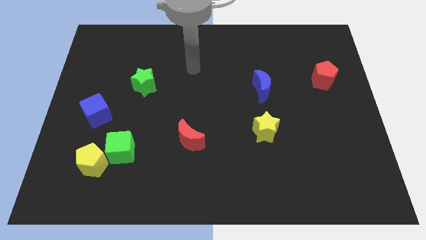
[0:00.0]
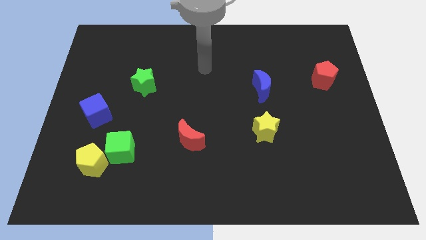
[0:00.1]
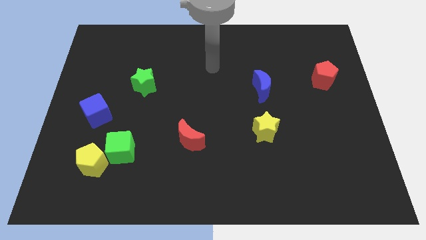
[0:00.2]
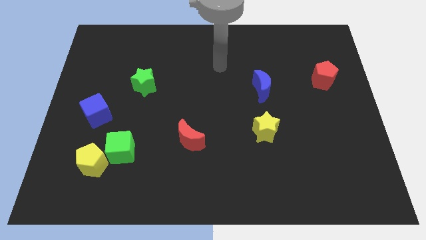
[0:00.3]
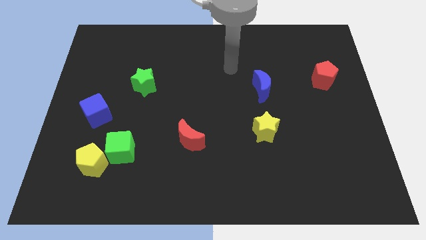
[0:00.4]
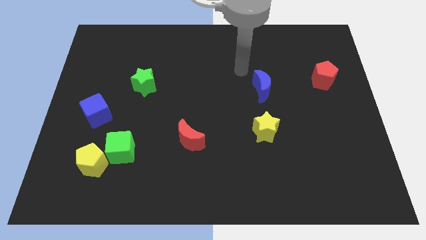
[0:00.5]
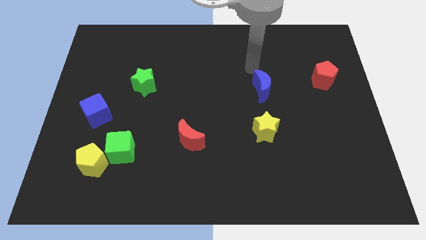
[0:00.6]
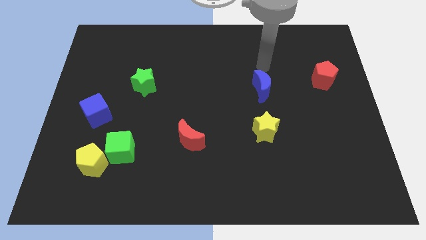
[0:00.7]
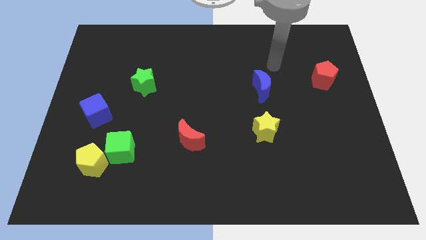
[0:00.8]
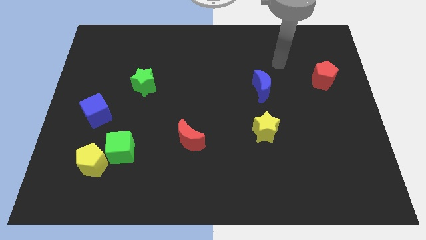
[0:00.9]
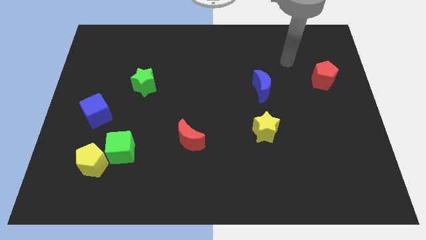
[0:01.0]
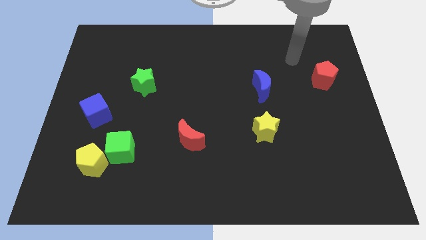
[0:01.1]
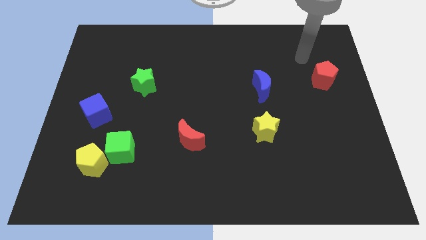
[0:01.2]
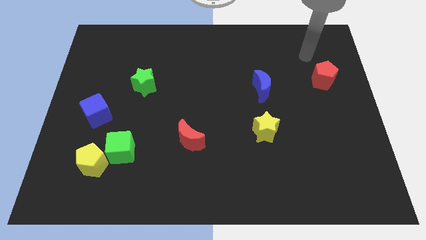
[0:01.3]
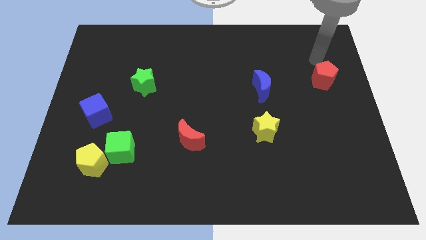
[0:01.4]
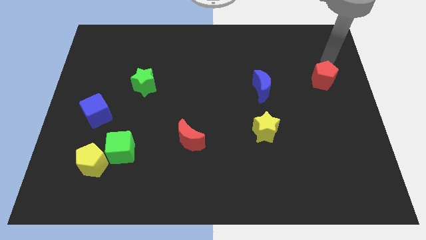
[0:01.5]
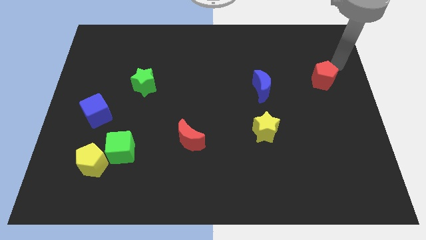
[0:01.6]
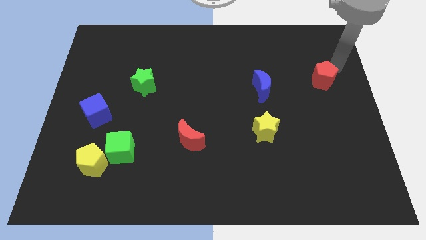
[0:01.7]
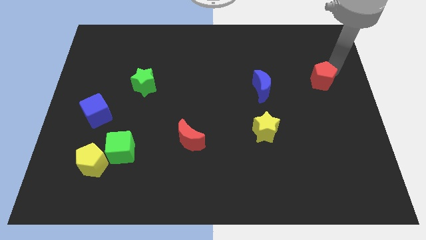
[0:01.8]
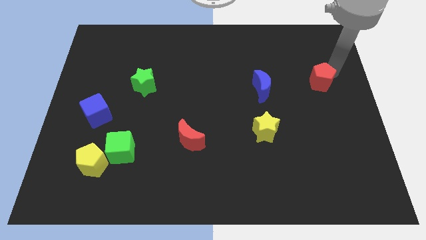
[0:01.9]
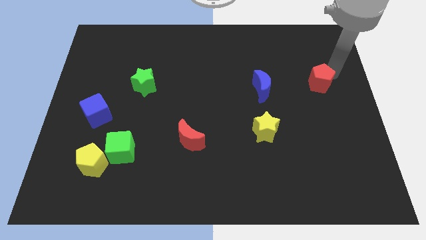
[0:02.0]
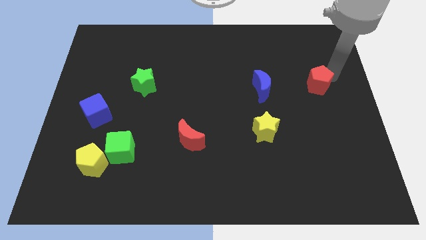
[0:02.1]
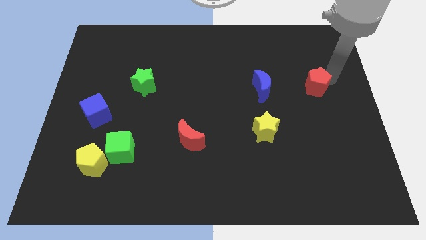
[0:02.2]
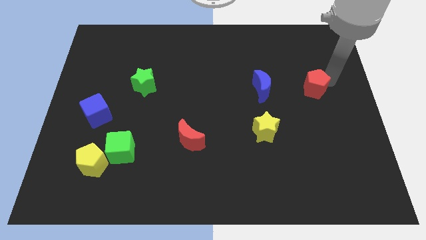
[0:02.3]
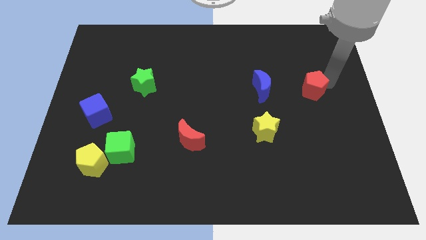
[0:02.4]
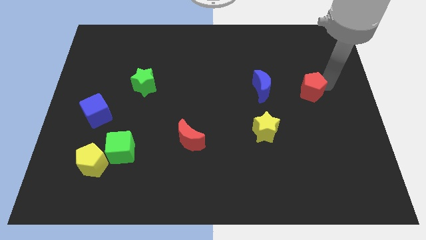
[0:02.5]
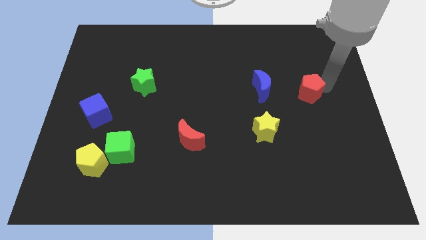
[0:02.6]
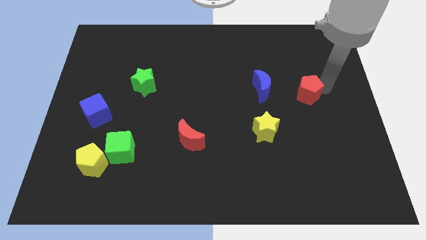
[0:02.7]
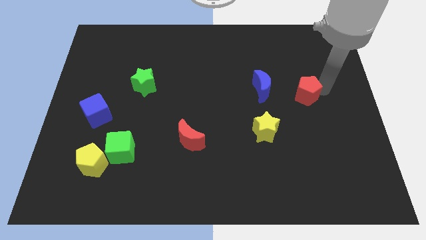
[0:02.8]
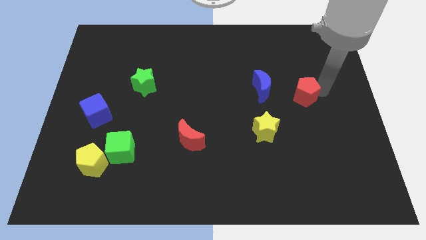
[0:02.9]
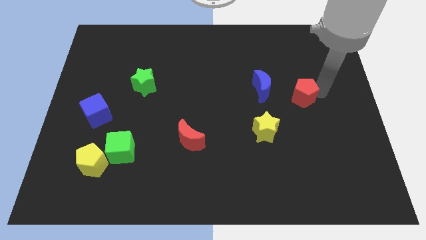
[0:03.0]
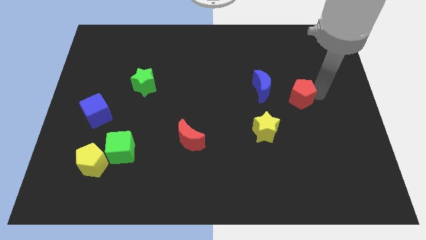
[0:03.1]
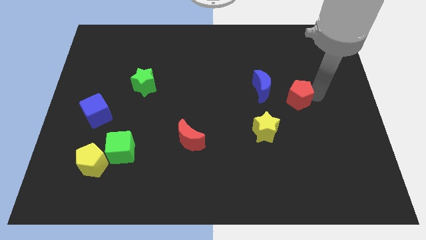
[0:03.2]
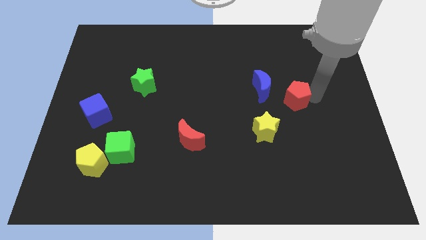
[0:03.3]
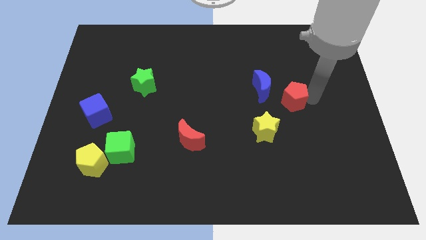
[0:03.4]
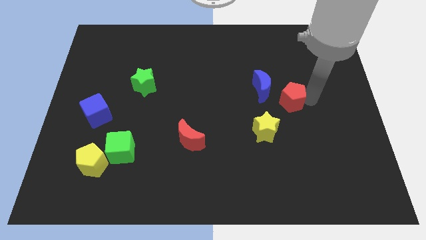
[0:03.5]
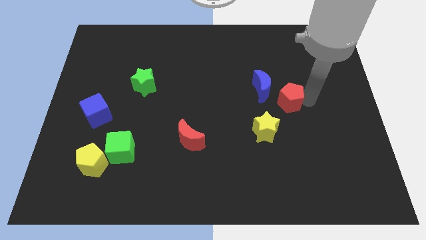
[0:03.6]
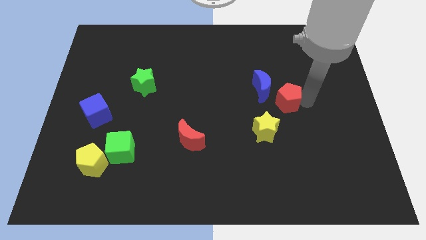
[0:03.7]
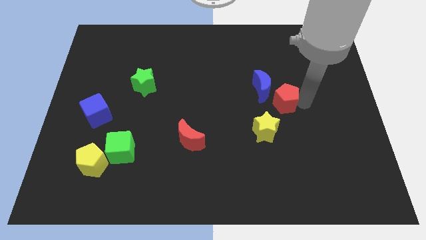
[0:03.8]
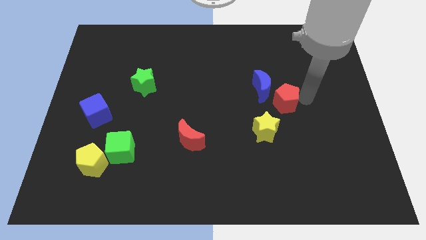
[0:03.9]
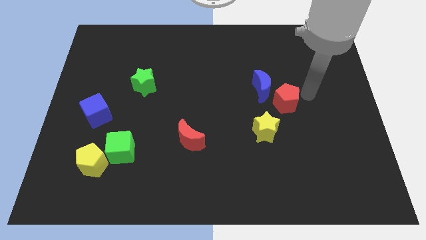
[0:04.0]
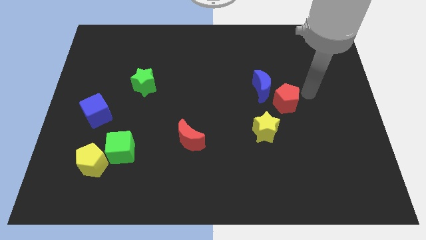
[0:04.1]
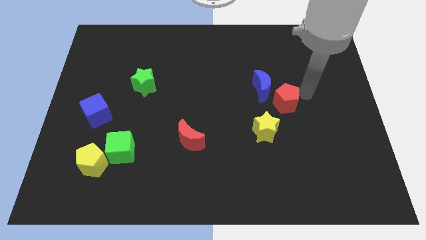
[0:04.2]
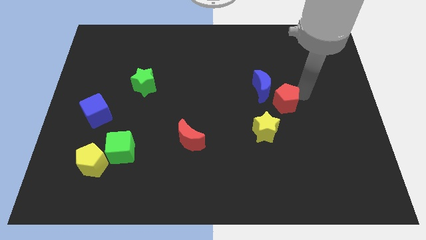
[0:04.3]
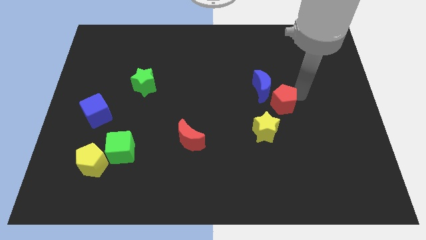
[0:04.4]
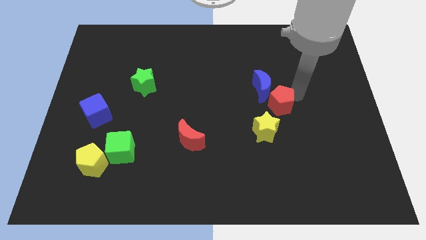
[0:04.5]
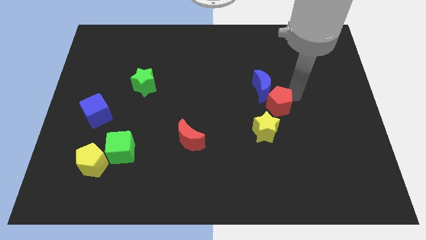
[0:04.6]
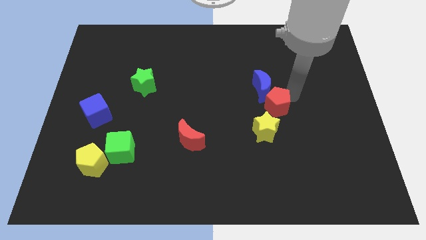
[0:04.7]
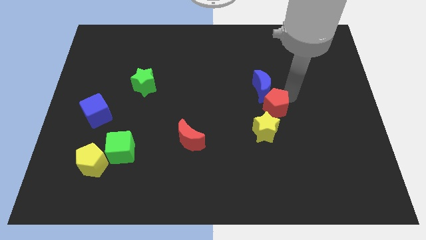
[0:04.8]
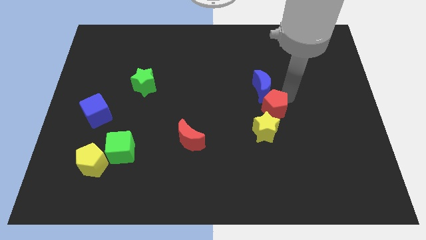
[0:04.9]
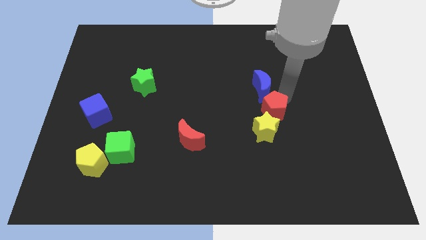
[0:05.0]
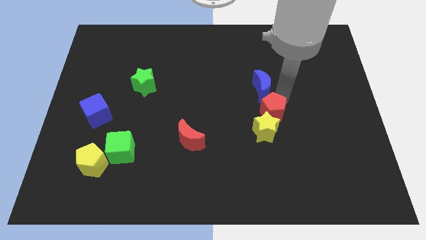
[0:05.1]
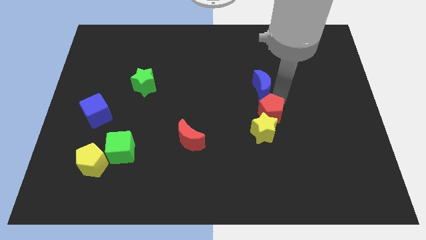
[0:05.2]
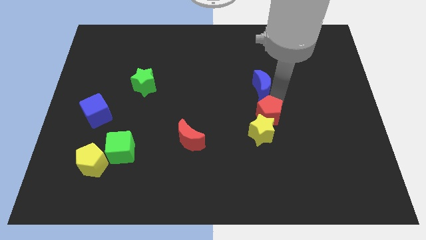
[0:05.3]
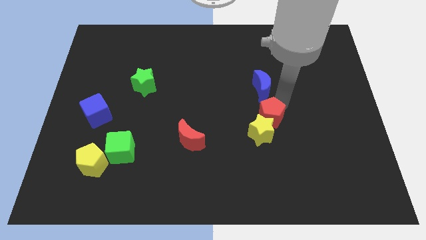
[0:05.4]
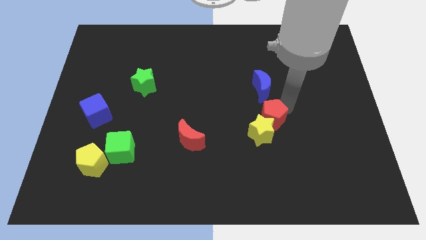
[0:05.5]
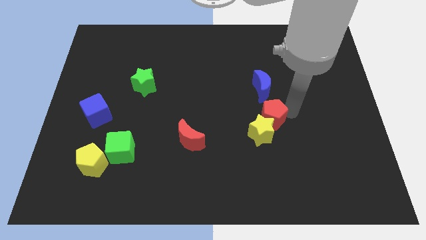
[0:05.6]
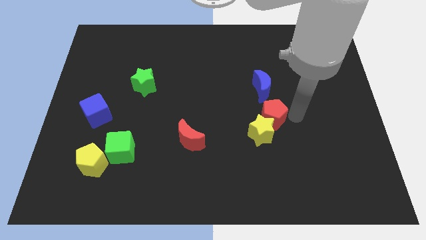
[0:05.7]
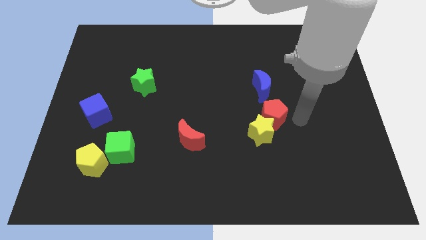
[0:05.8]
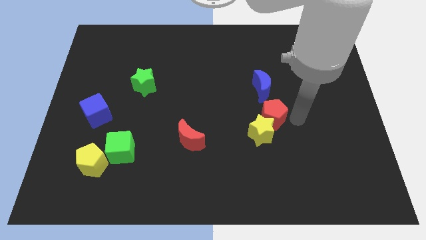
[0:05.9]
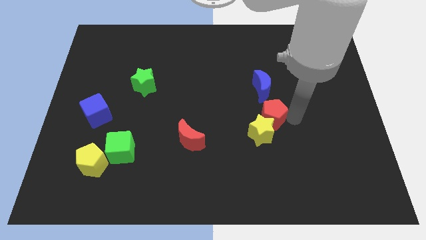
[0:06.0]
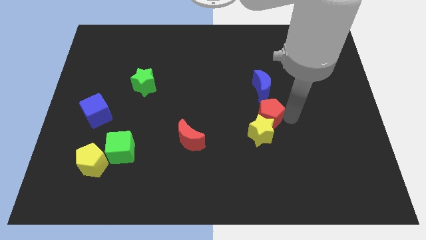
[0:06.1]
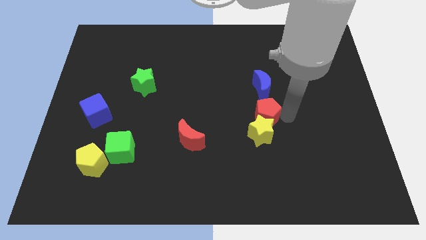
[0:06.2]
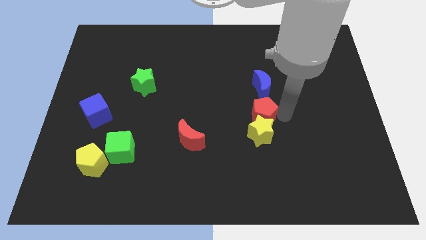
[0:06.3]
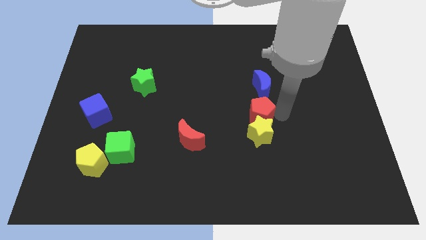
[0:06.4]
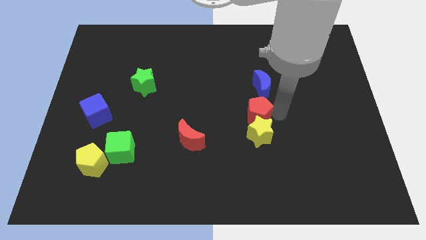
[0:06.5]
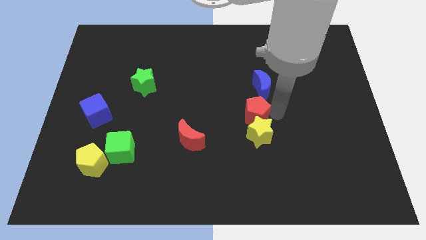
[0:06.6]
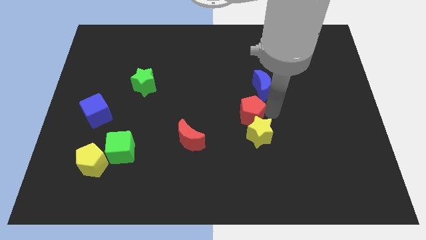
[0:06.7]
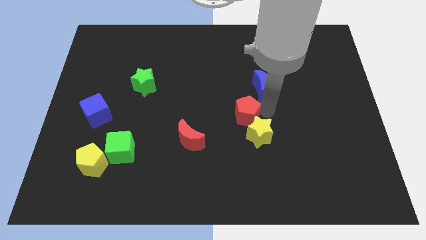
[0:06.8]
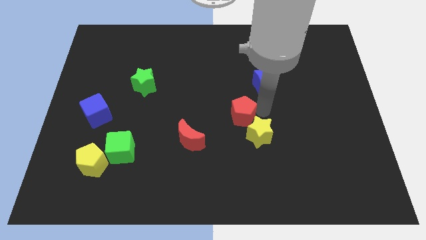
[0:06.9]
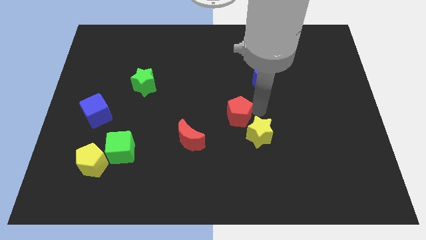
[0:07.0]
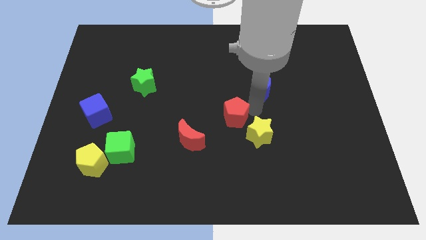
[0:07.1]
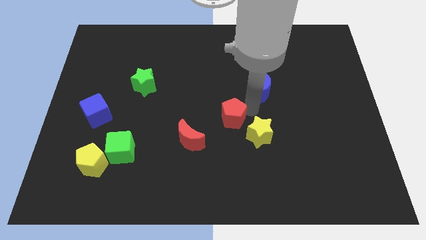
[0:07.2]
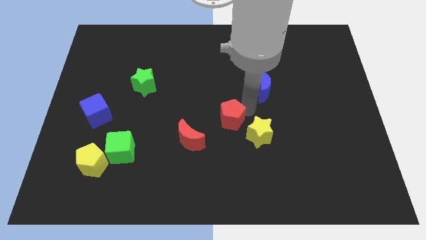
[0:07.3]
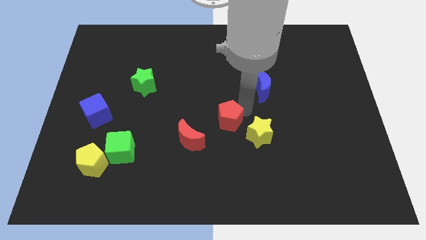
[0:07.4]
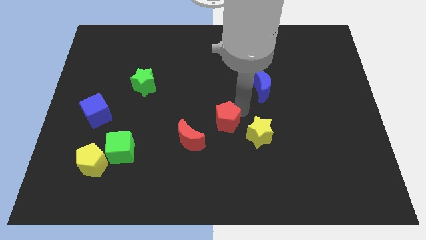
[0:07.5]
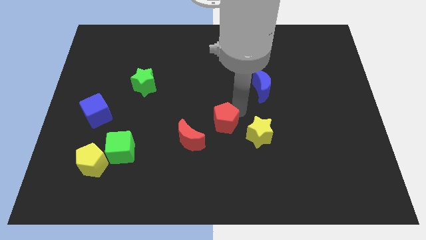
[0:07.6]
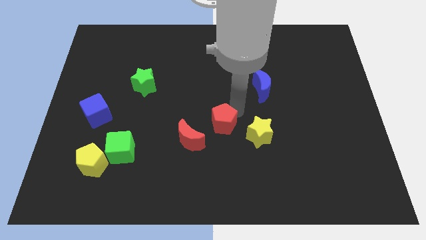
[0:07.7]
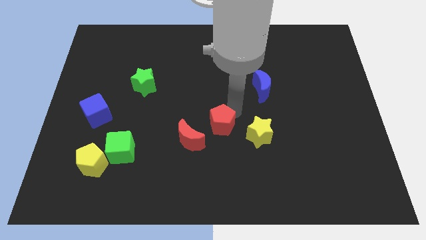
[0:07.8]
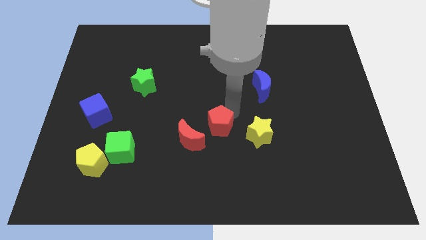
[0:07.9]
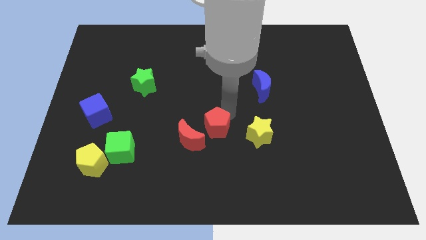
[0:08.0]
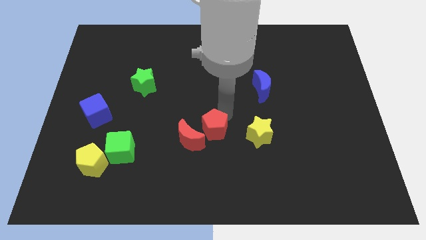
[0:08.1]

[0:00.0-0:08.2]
slide the red pentagon next to the red moon
